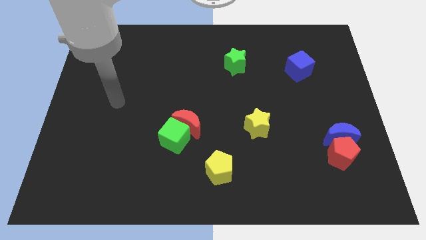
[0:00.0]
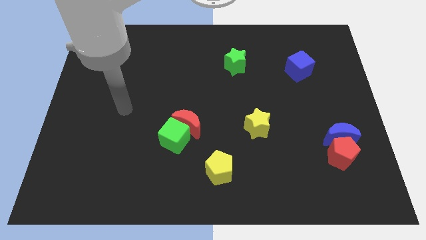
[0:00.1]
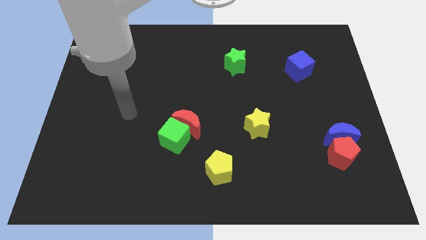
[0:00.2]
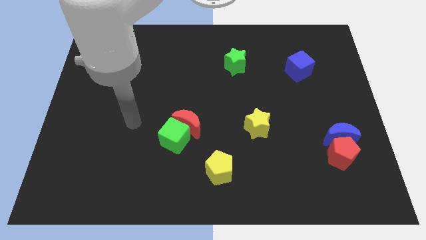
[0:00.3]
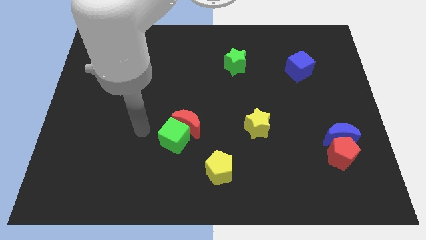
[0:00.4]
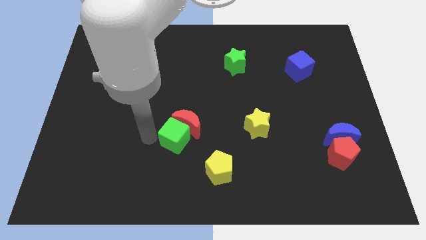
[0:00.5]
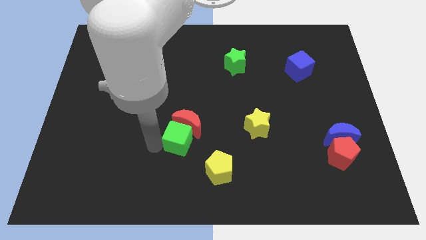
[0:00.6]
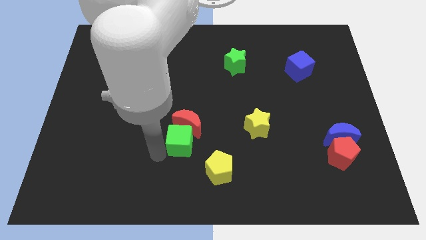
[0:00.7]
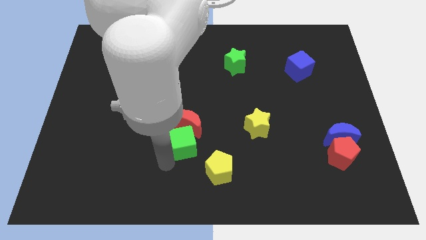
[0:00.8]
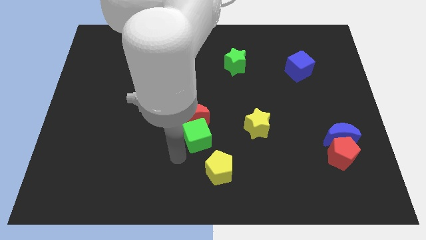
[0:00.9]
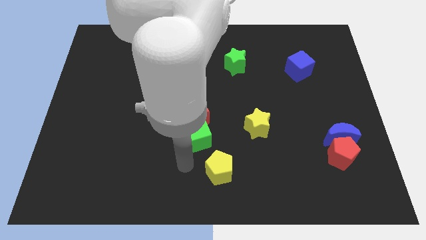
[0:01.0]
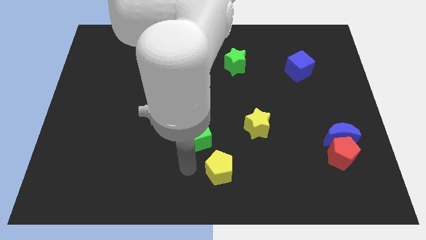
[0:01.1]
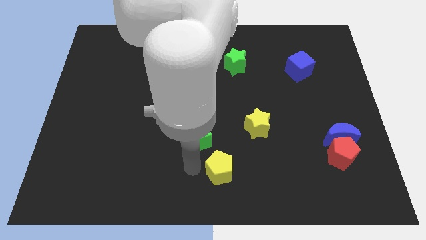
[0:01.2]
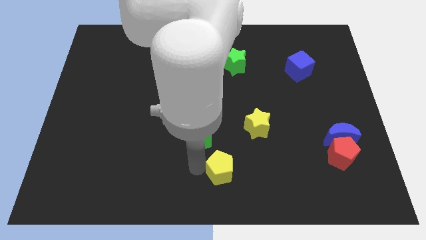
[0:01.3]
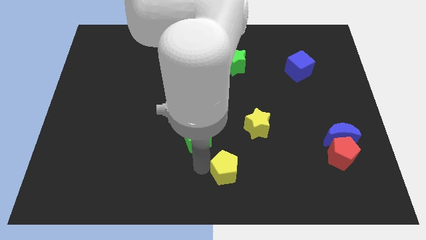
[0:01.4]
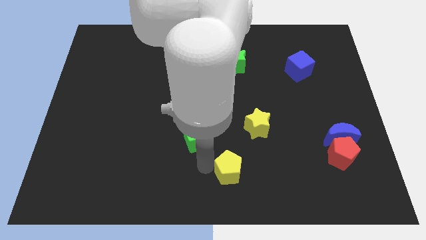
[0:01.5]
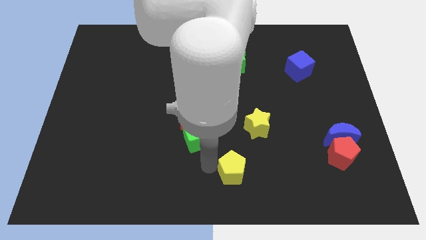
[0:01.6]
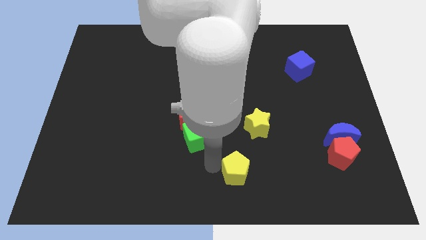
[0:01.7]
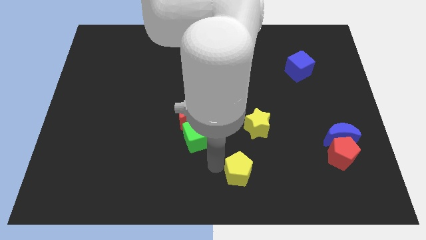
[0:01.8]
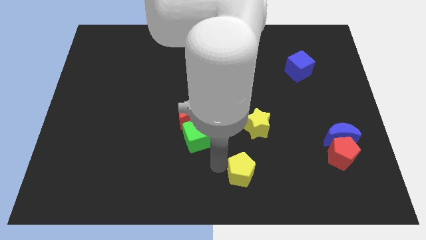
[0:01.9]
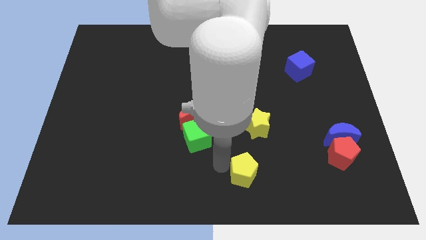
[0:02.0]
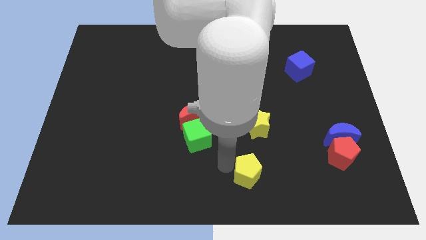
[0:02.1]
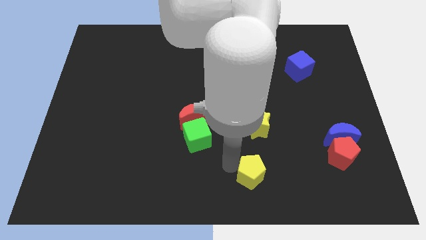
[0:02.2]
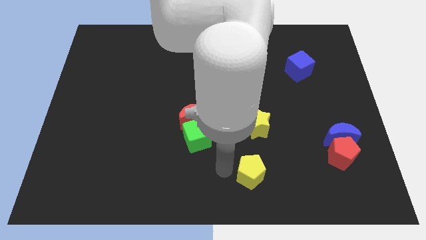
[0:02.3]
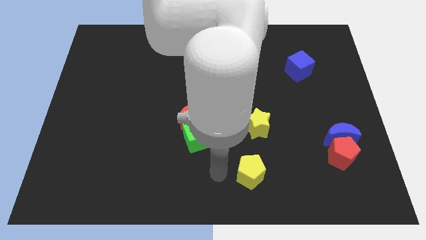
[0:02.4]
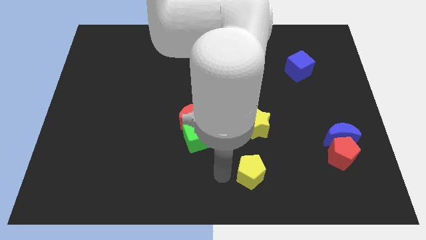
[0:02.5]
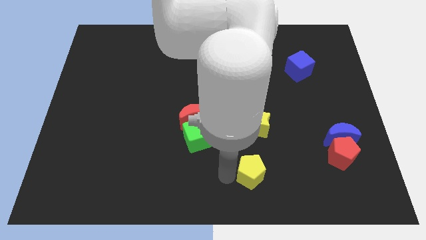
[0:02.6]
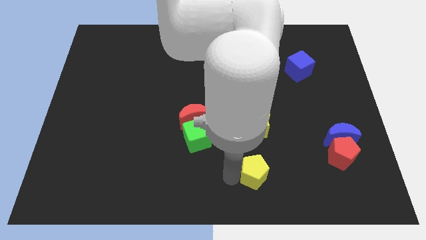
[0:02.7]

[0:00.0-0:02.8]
slightly push the yellow pentagon to the right

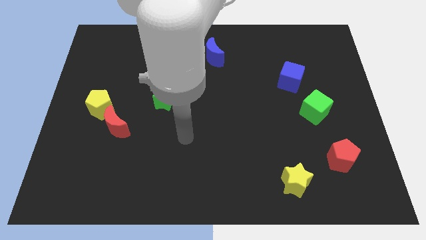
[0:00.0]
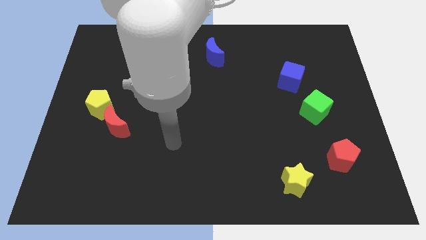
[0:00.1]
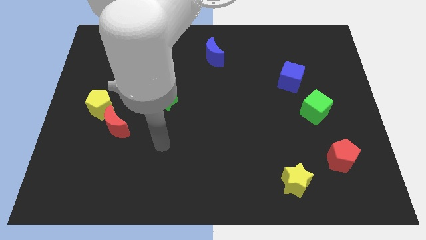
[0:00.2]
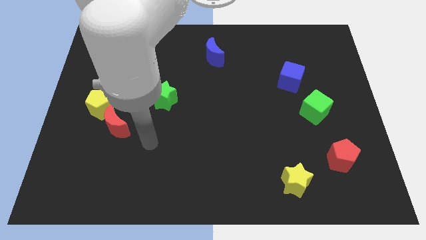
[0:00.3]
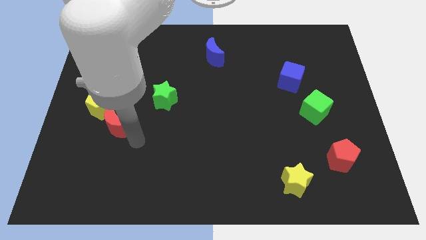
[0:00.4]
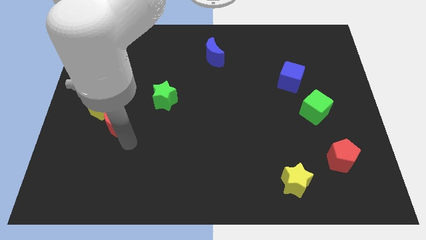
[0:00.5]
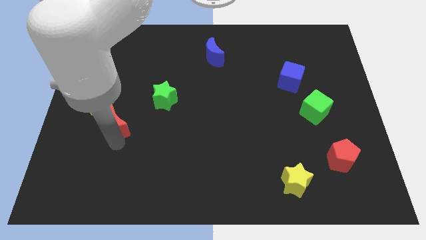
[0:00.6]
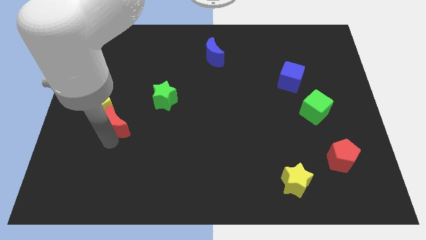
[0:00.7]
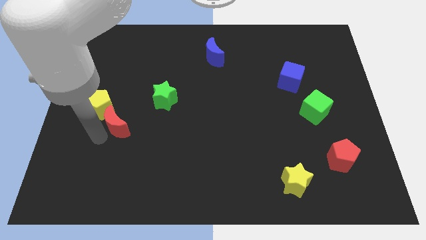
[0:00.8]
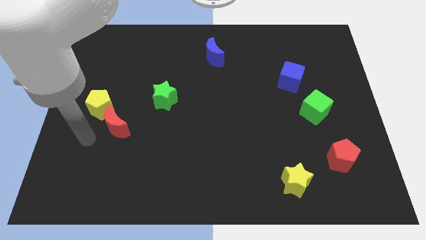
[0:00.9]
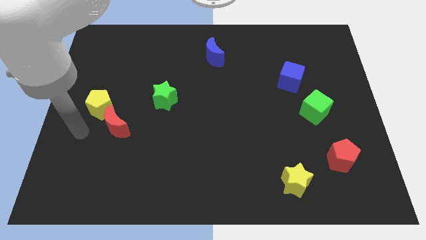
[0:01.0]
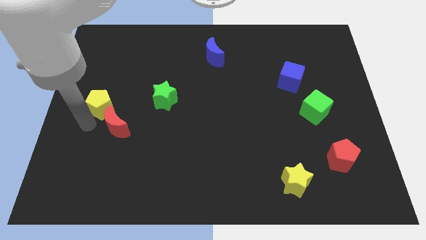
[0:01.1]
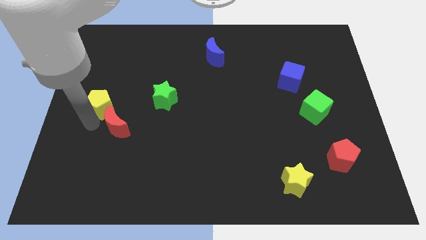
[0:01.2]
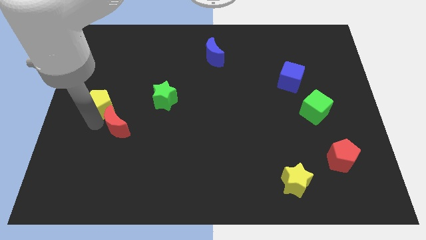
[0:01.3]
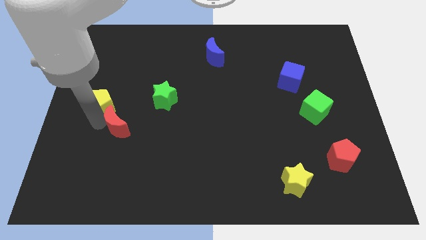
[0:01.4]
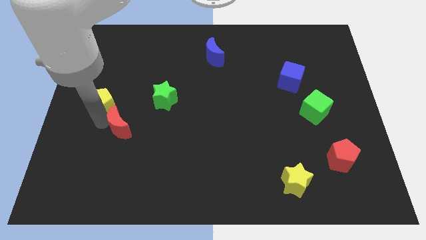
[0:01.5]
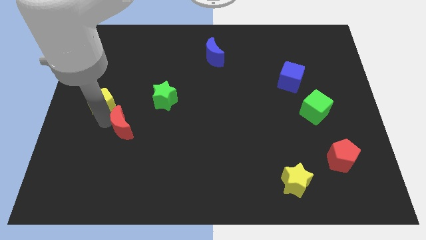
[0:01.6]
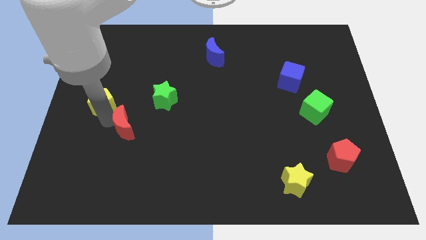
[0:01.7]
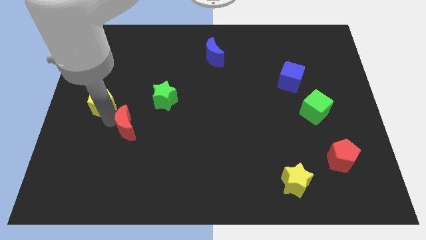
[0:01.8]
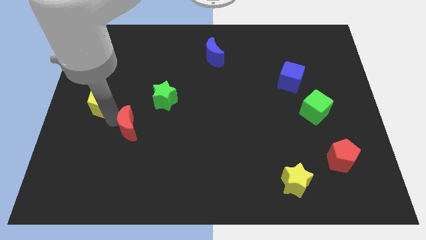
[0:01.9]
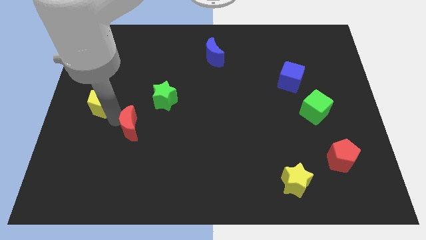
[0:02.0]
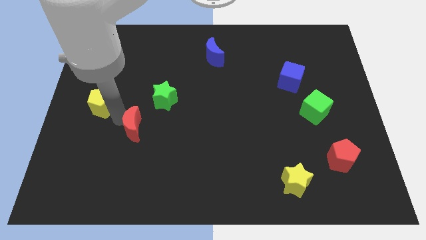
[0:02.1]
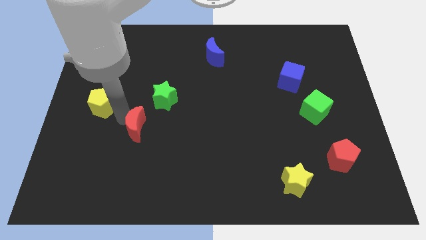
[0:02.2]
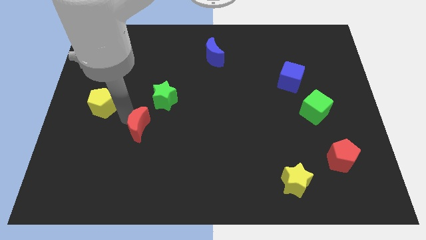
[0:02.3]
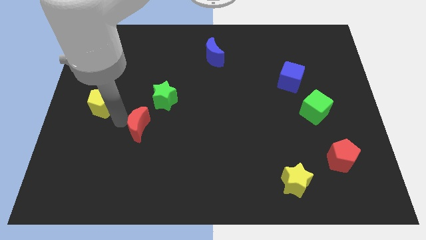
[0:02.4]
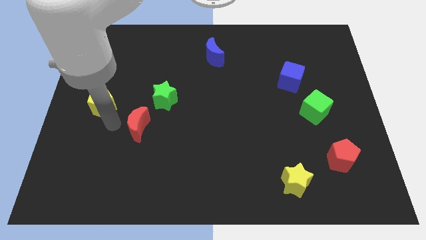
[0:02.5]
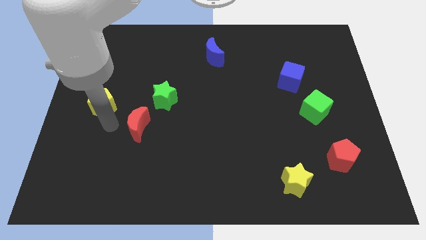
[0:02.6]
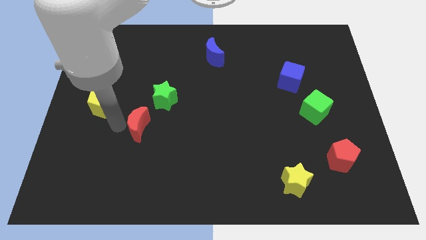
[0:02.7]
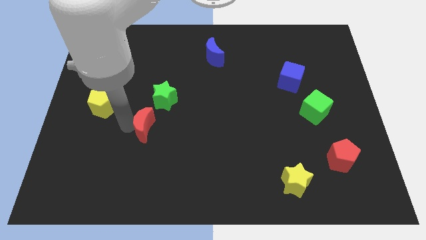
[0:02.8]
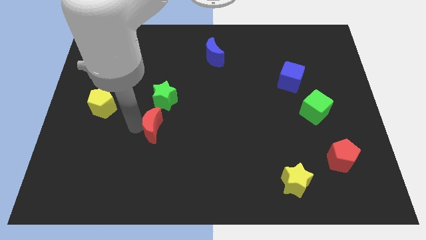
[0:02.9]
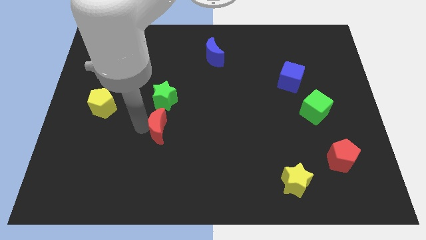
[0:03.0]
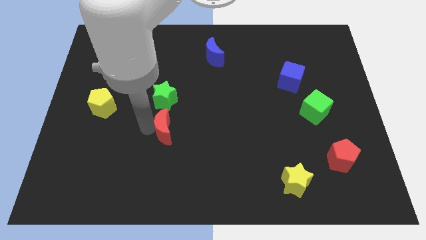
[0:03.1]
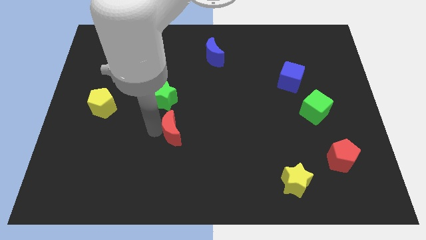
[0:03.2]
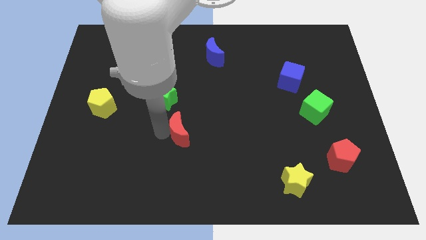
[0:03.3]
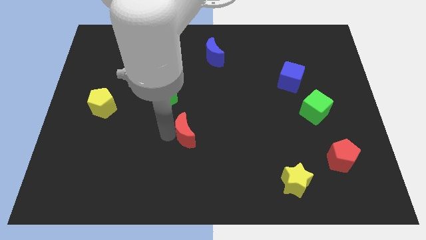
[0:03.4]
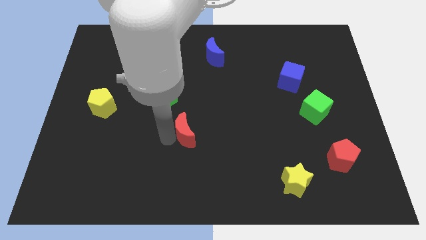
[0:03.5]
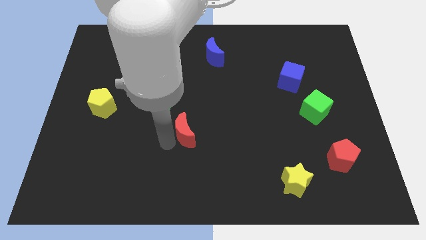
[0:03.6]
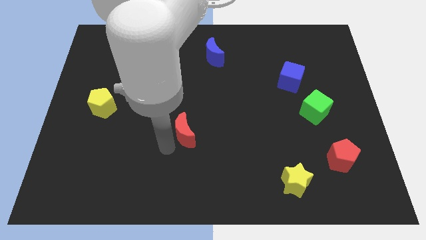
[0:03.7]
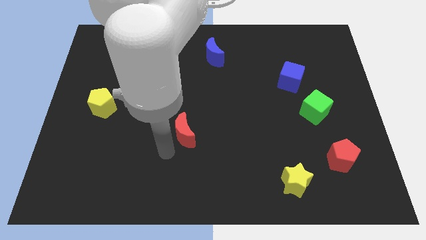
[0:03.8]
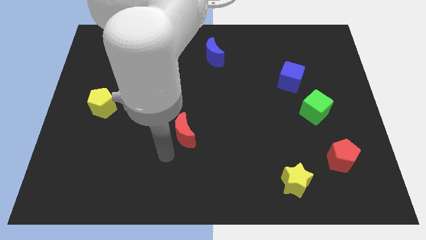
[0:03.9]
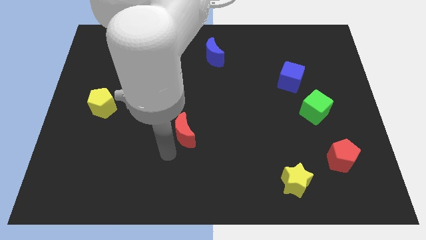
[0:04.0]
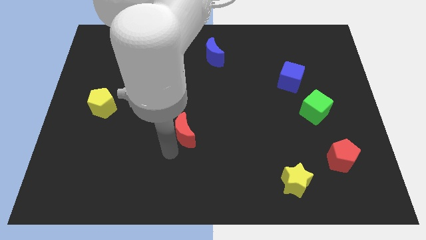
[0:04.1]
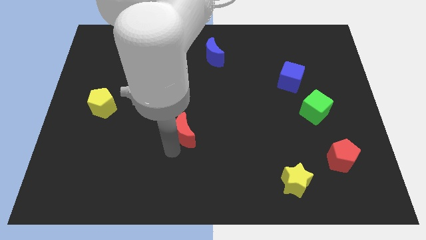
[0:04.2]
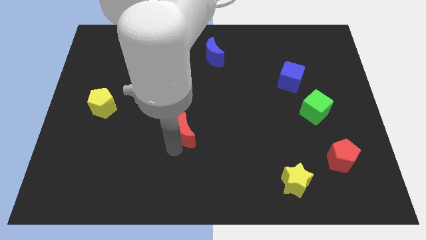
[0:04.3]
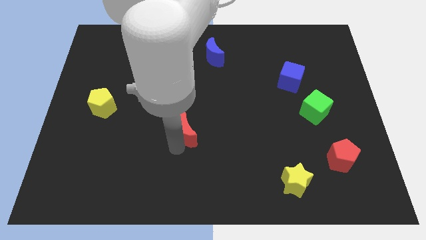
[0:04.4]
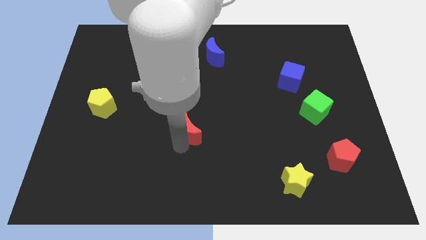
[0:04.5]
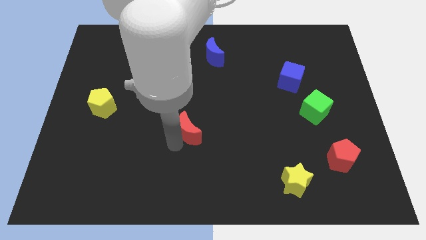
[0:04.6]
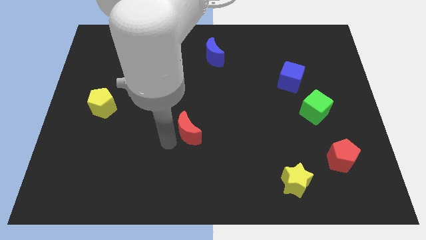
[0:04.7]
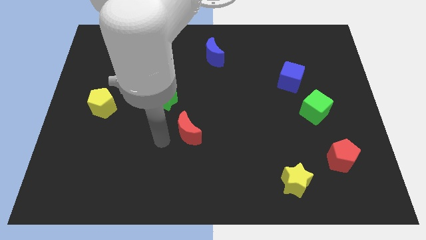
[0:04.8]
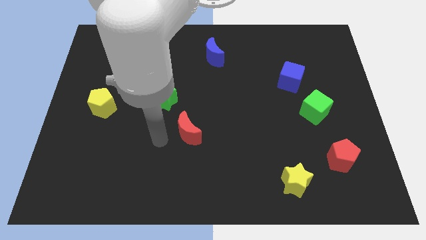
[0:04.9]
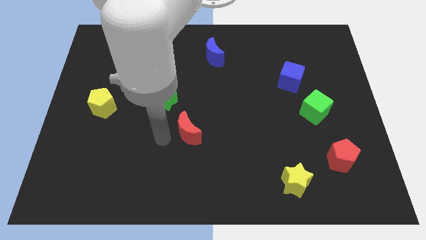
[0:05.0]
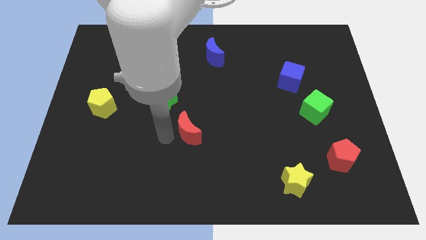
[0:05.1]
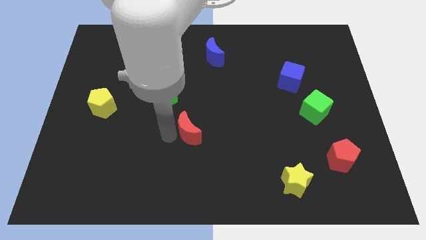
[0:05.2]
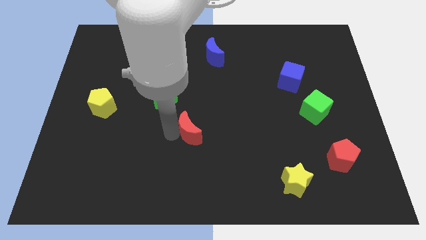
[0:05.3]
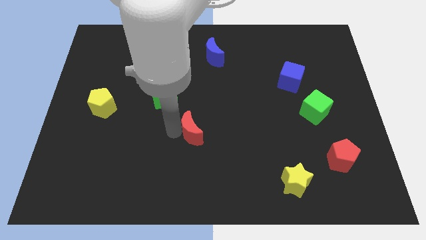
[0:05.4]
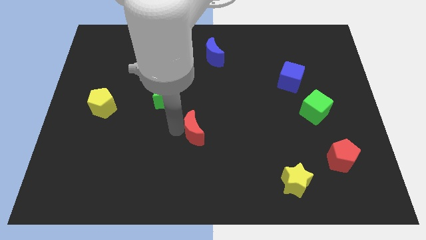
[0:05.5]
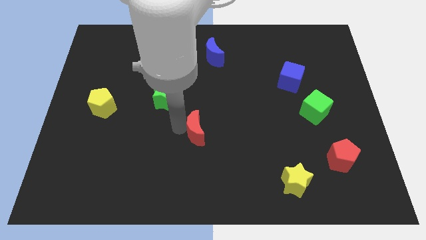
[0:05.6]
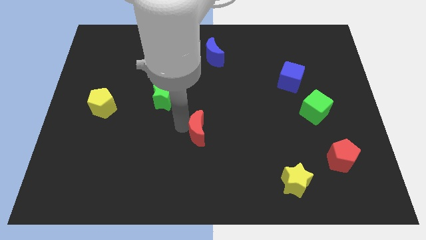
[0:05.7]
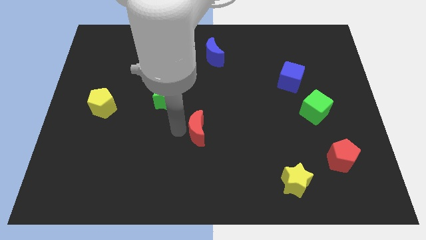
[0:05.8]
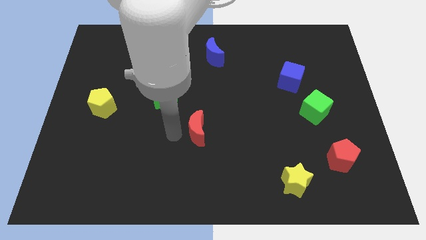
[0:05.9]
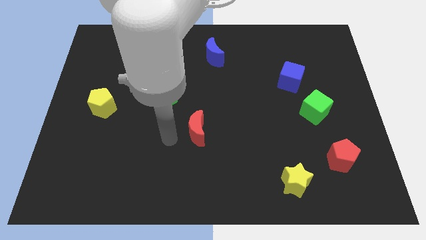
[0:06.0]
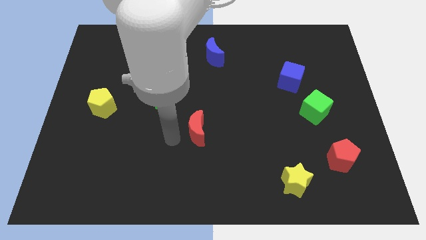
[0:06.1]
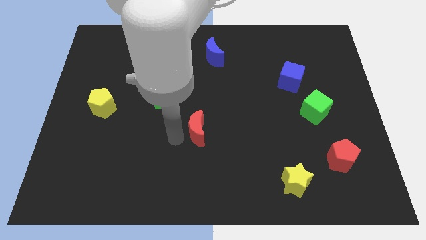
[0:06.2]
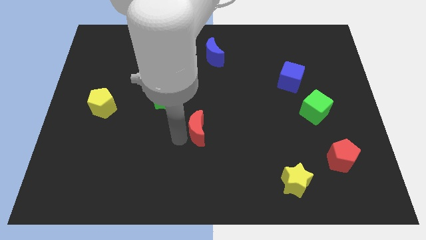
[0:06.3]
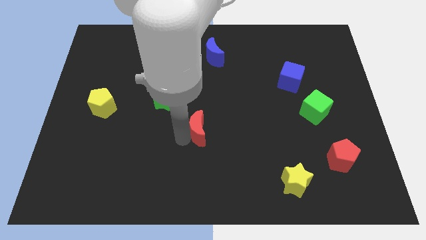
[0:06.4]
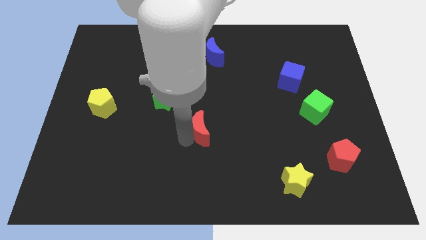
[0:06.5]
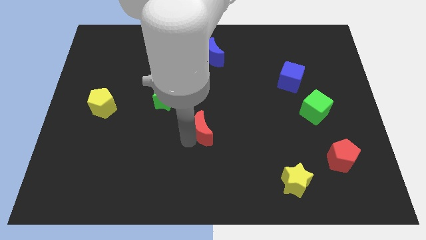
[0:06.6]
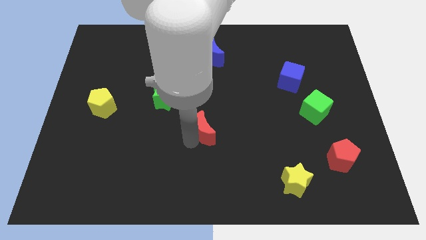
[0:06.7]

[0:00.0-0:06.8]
push the red moon right
